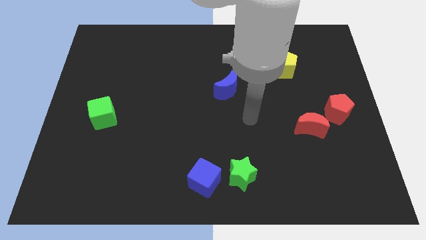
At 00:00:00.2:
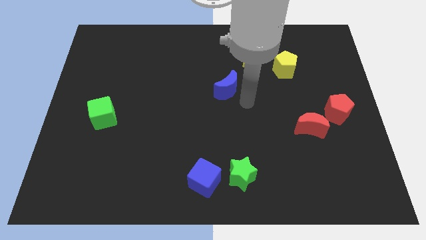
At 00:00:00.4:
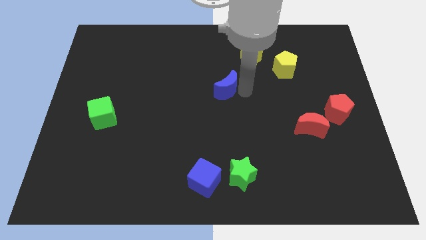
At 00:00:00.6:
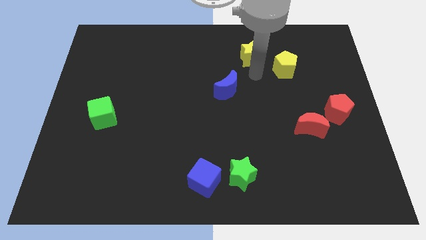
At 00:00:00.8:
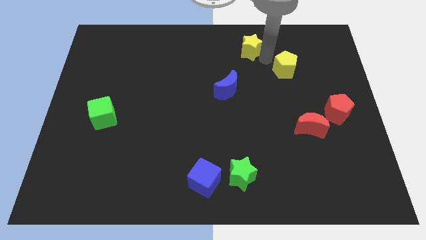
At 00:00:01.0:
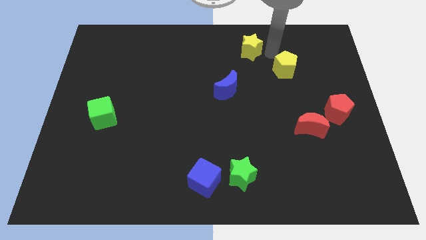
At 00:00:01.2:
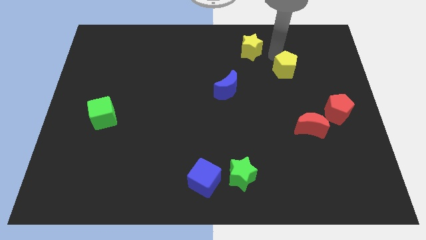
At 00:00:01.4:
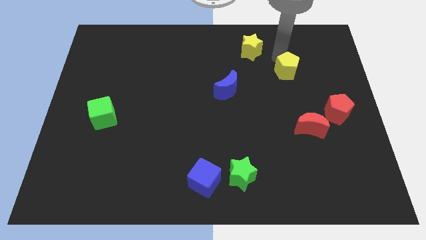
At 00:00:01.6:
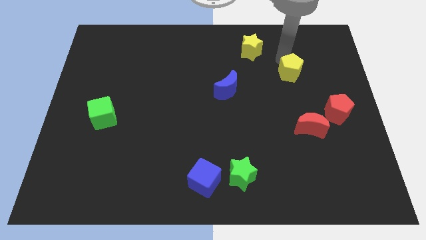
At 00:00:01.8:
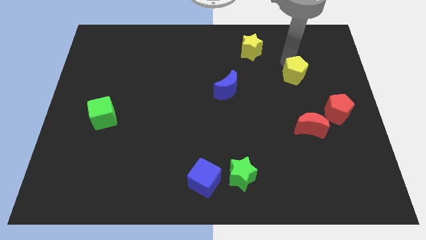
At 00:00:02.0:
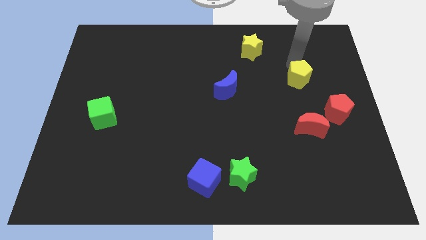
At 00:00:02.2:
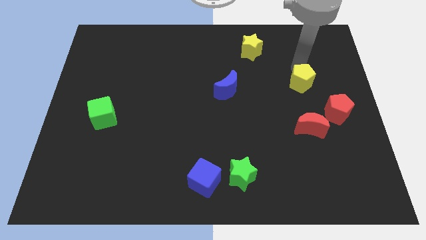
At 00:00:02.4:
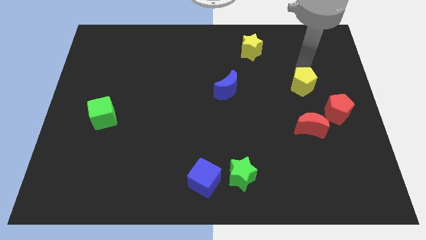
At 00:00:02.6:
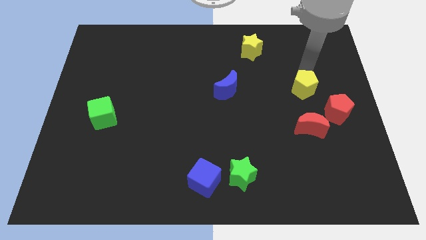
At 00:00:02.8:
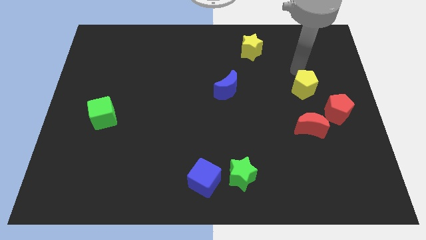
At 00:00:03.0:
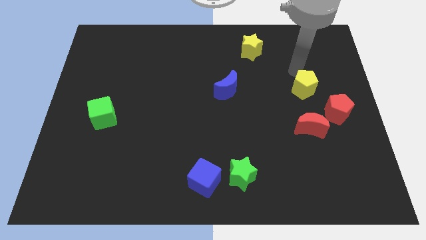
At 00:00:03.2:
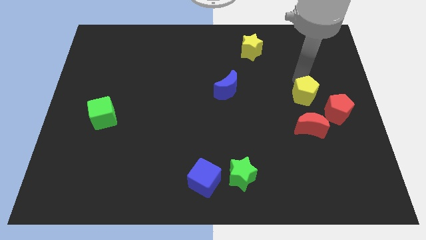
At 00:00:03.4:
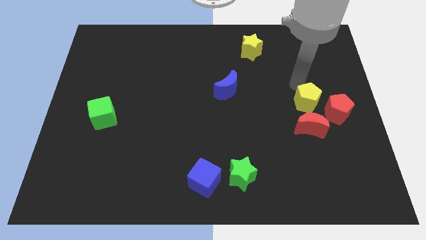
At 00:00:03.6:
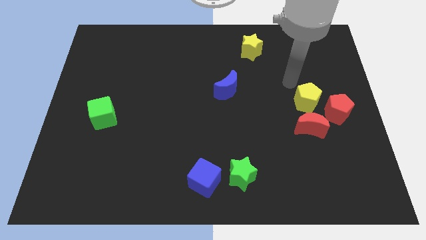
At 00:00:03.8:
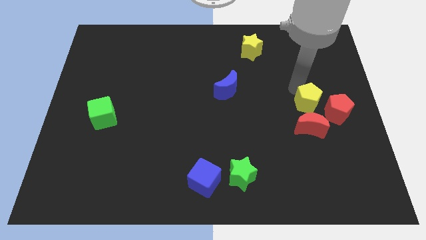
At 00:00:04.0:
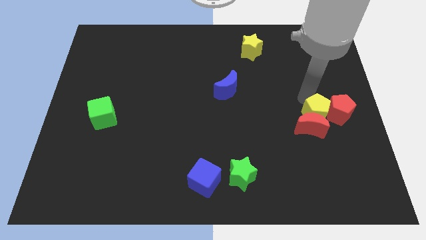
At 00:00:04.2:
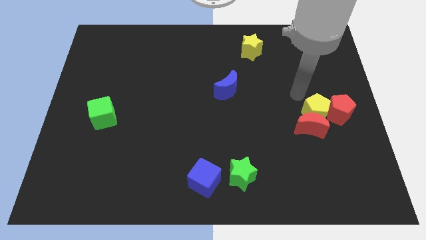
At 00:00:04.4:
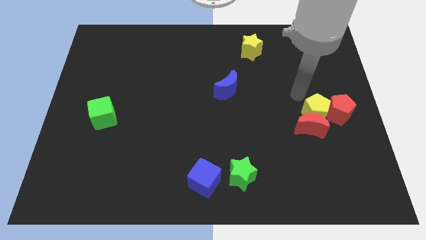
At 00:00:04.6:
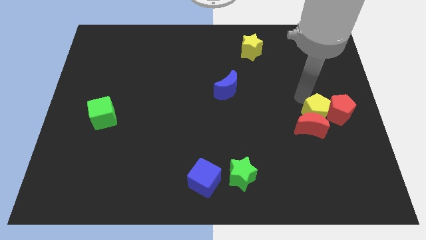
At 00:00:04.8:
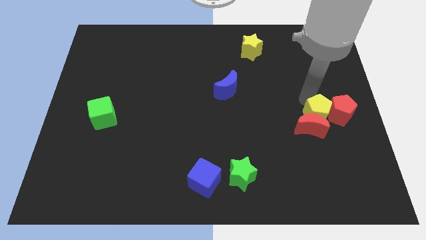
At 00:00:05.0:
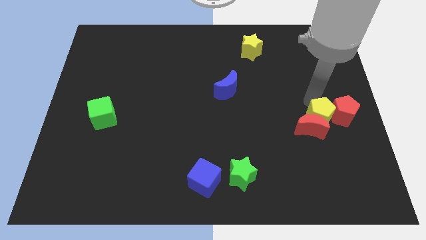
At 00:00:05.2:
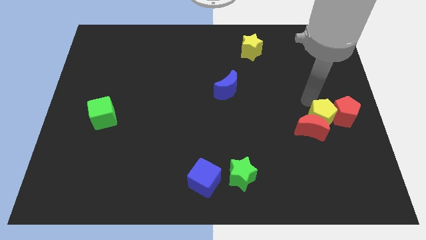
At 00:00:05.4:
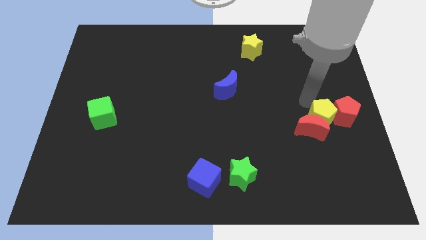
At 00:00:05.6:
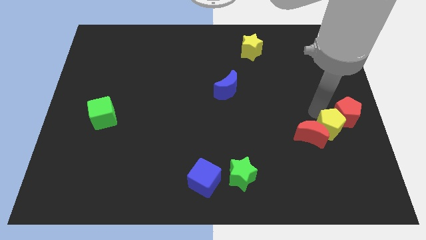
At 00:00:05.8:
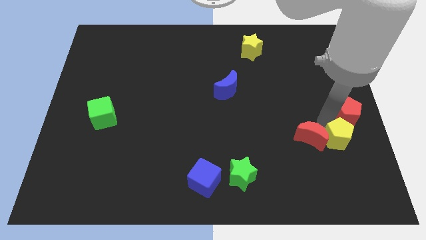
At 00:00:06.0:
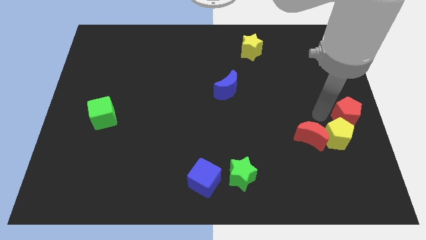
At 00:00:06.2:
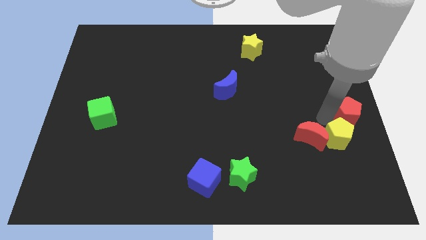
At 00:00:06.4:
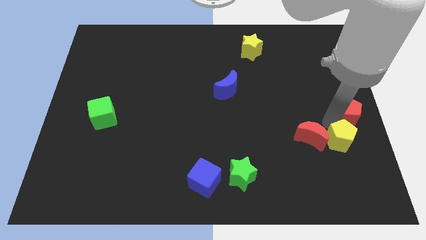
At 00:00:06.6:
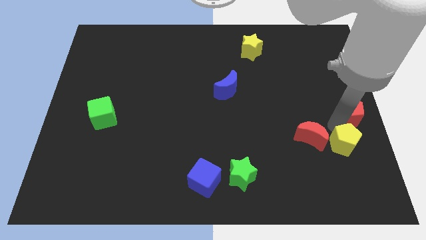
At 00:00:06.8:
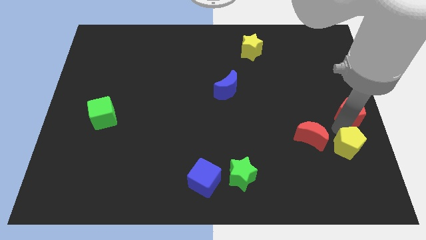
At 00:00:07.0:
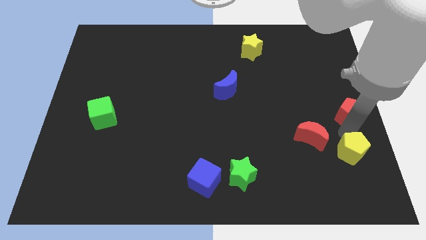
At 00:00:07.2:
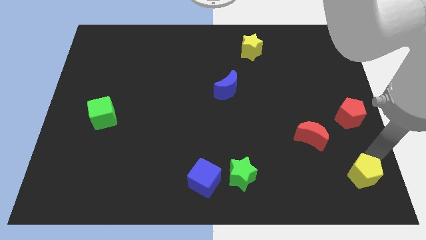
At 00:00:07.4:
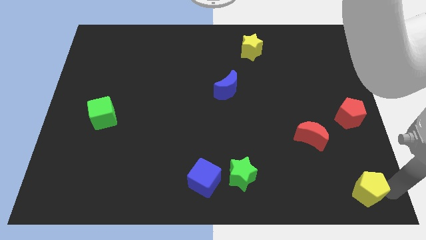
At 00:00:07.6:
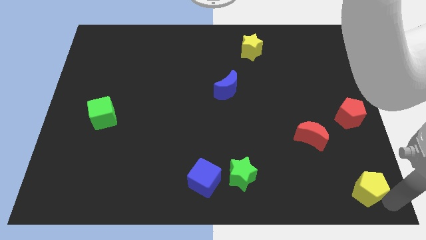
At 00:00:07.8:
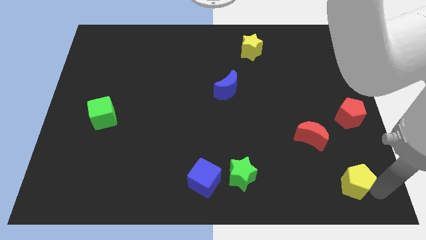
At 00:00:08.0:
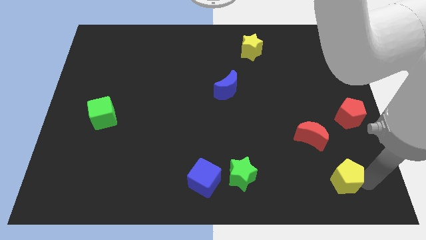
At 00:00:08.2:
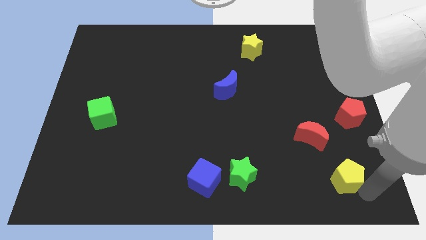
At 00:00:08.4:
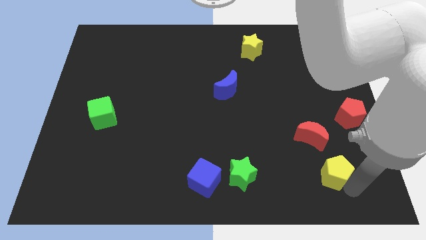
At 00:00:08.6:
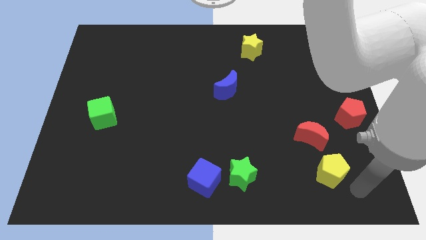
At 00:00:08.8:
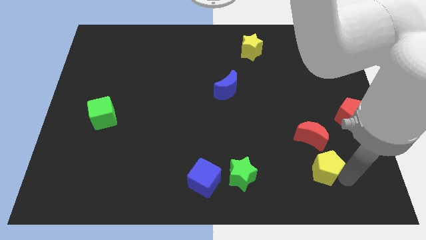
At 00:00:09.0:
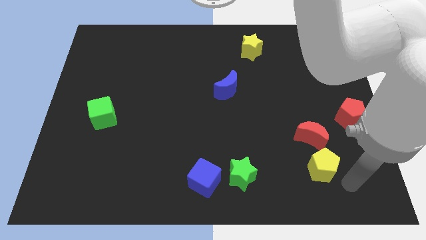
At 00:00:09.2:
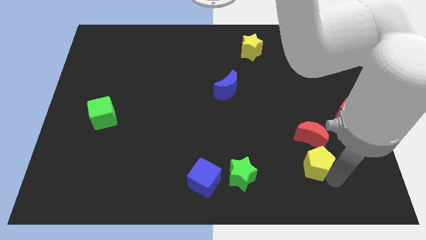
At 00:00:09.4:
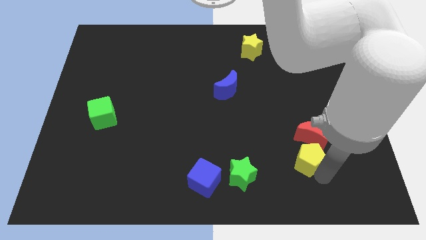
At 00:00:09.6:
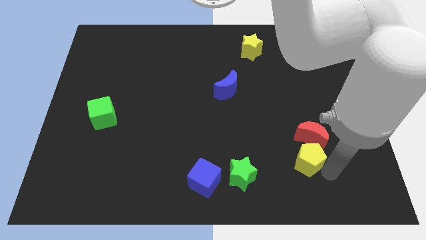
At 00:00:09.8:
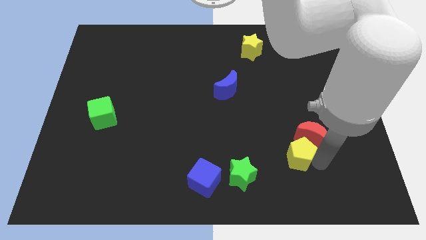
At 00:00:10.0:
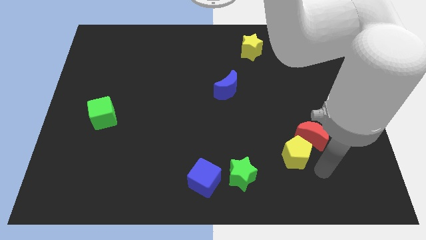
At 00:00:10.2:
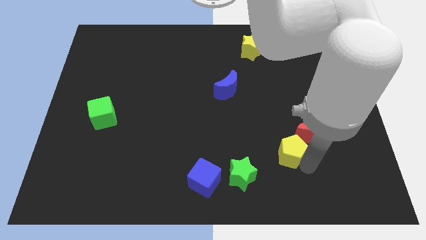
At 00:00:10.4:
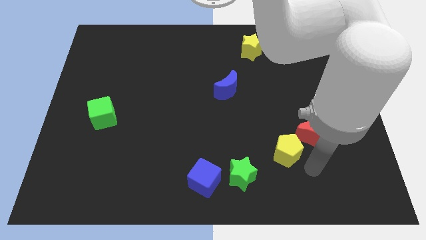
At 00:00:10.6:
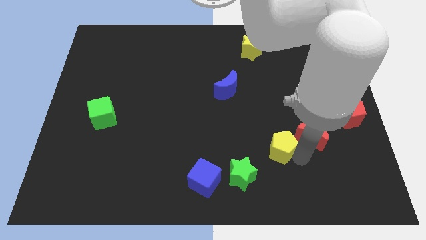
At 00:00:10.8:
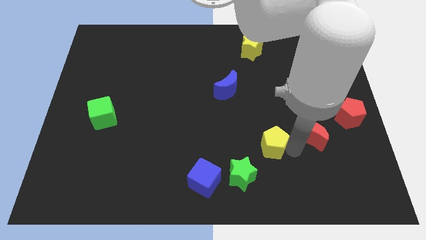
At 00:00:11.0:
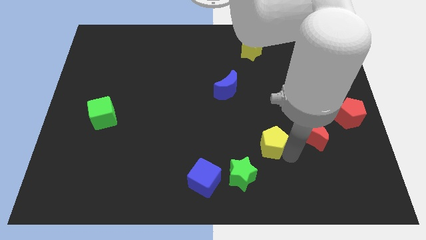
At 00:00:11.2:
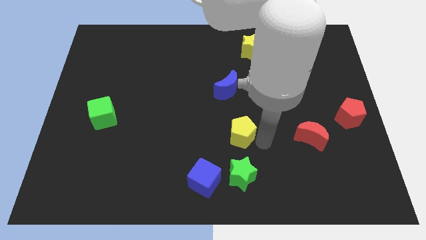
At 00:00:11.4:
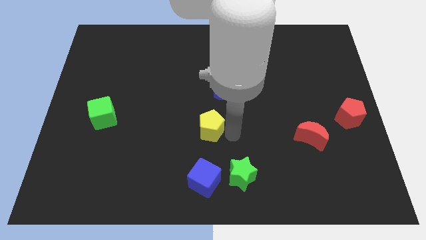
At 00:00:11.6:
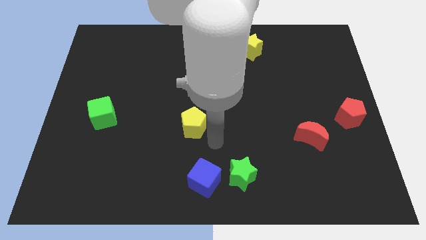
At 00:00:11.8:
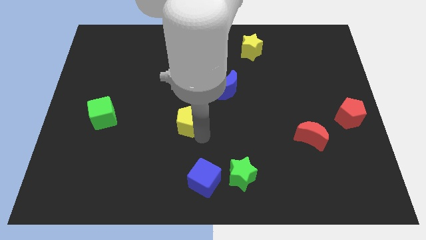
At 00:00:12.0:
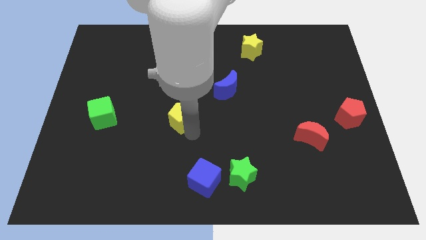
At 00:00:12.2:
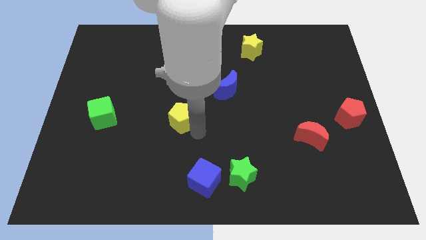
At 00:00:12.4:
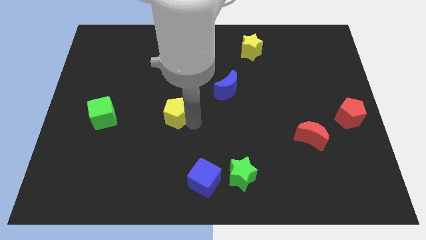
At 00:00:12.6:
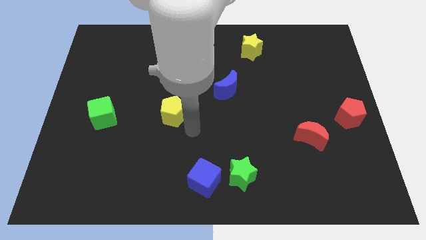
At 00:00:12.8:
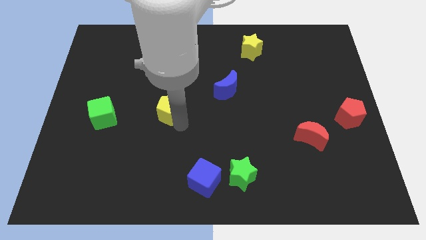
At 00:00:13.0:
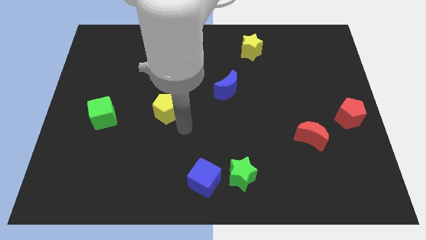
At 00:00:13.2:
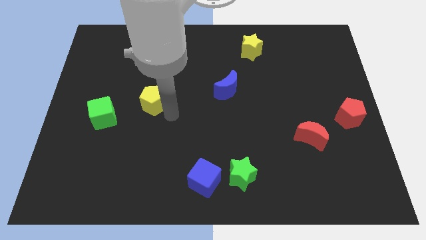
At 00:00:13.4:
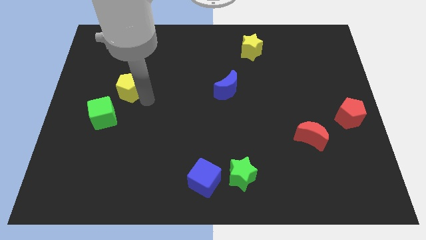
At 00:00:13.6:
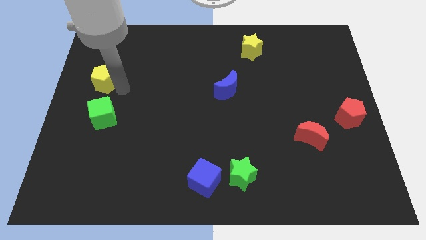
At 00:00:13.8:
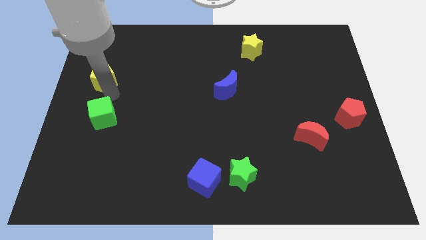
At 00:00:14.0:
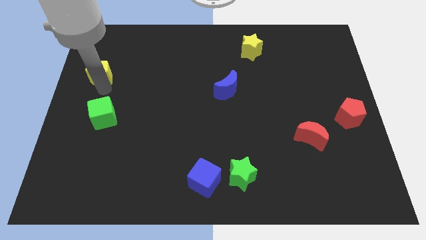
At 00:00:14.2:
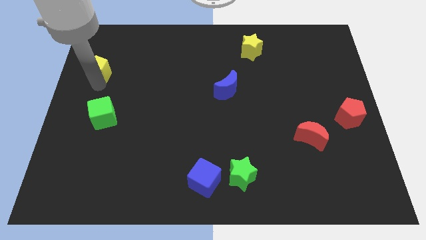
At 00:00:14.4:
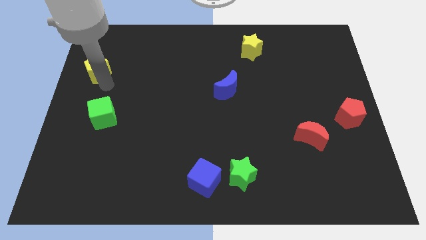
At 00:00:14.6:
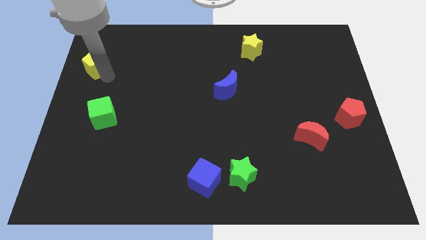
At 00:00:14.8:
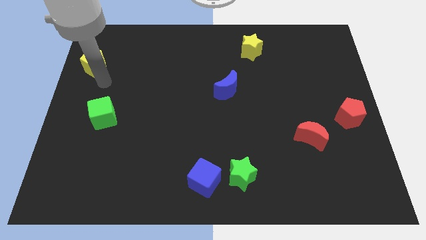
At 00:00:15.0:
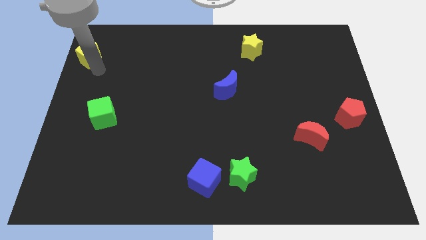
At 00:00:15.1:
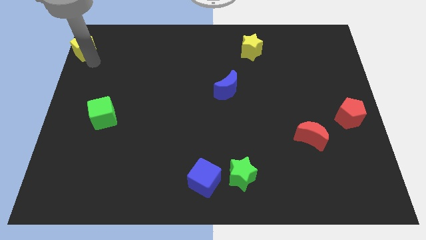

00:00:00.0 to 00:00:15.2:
slide the yellow pentagon to the top left corner
